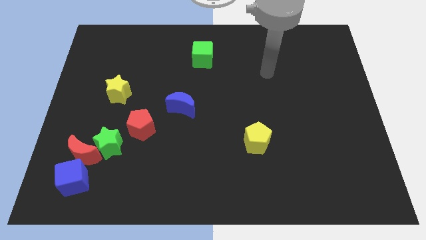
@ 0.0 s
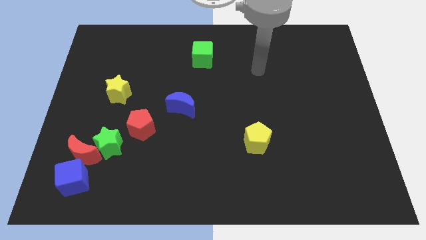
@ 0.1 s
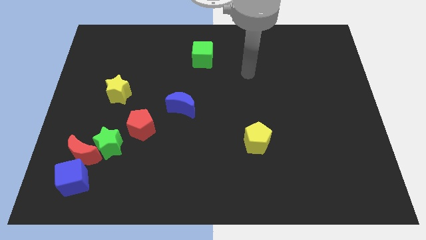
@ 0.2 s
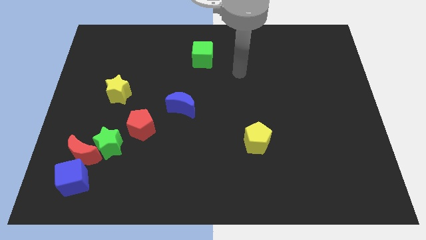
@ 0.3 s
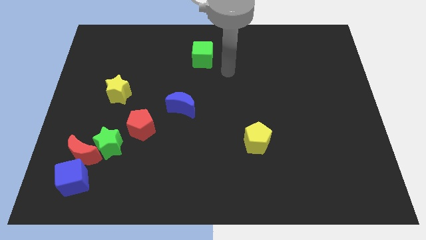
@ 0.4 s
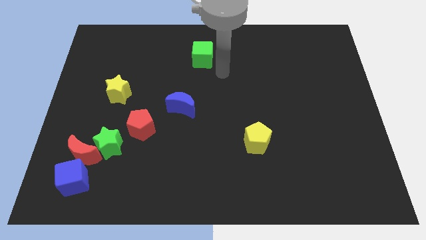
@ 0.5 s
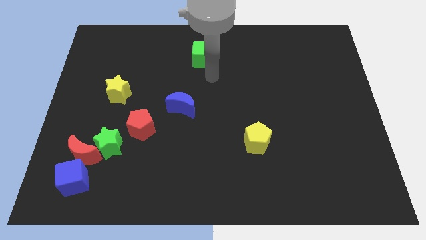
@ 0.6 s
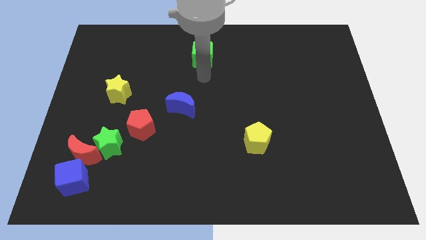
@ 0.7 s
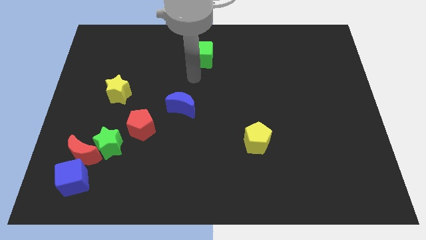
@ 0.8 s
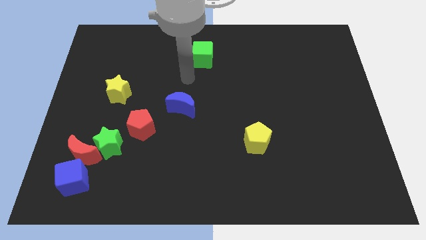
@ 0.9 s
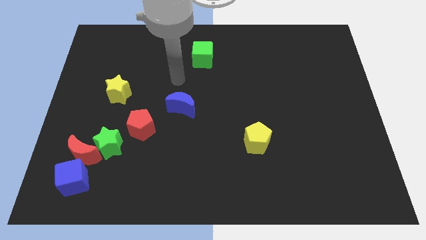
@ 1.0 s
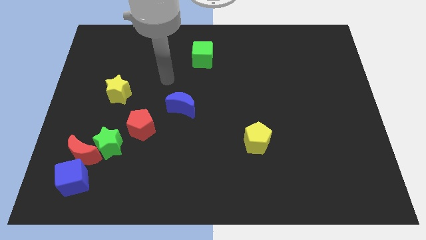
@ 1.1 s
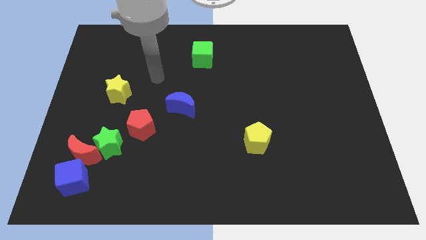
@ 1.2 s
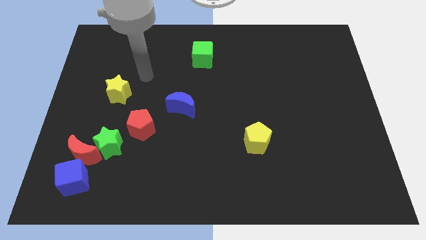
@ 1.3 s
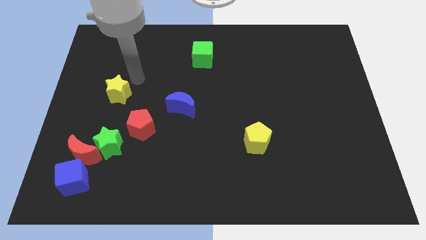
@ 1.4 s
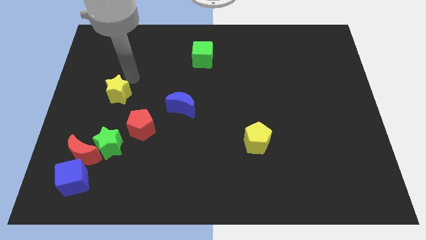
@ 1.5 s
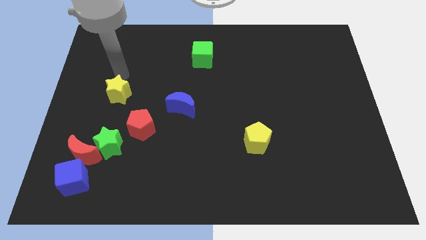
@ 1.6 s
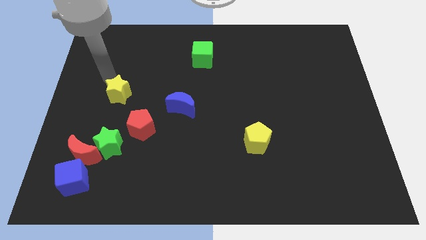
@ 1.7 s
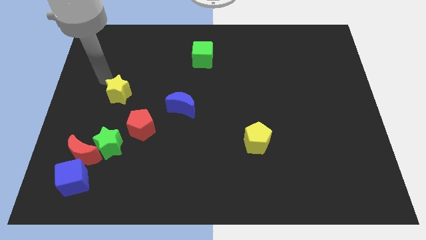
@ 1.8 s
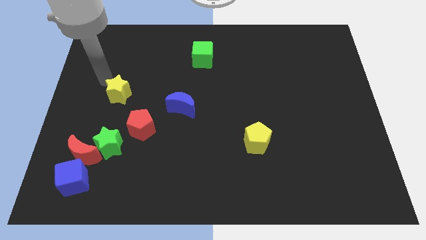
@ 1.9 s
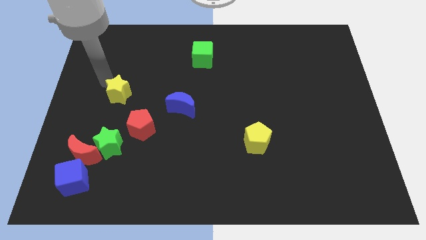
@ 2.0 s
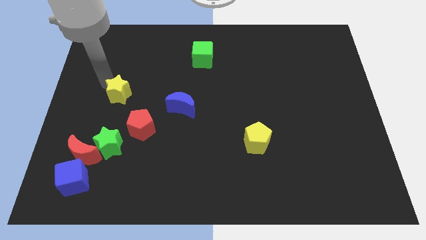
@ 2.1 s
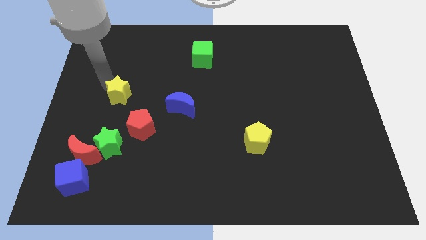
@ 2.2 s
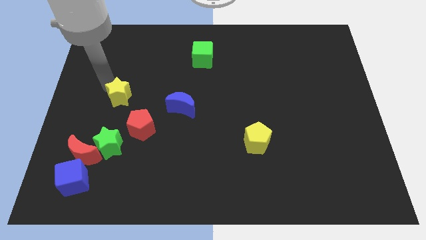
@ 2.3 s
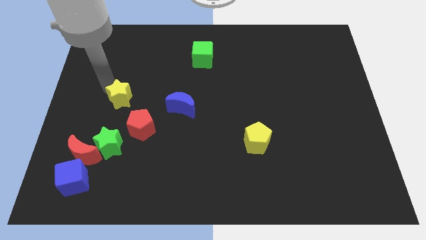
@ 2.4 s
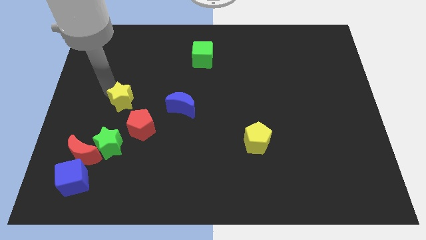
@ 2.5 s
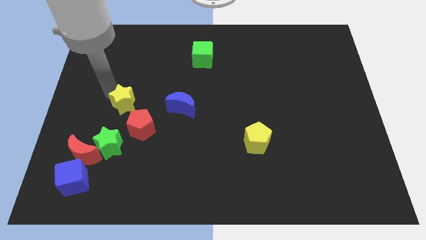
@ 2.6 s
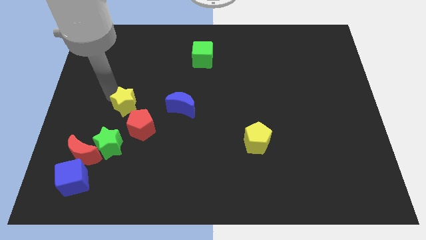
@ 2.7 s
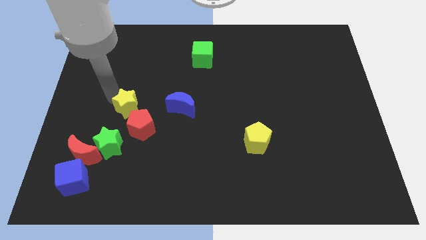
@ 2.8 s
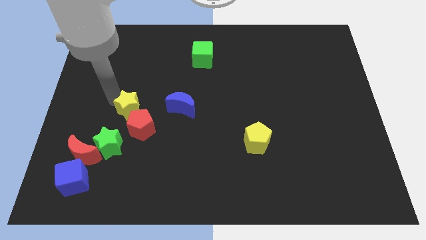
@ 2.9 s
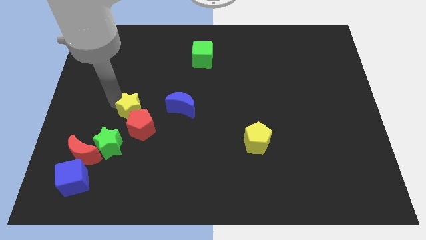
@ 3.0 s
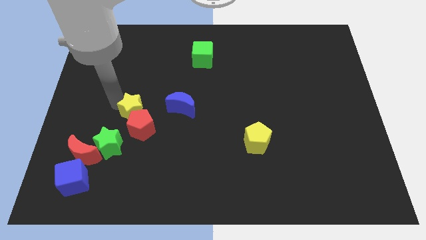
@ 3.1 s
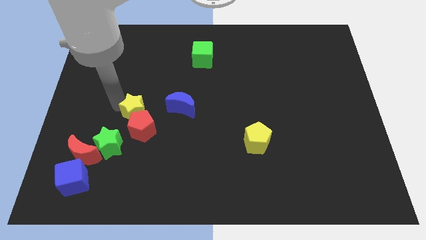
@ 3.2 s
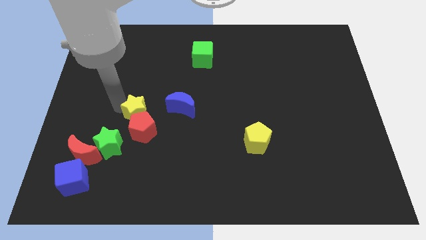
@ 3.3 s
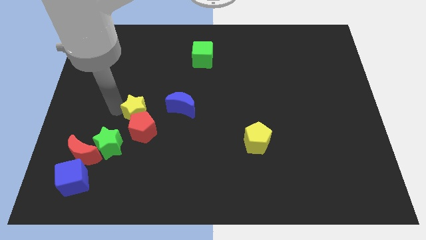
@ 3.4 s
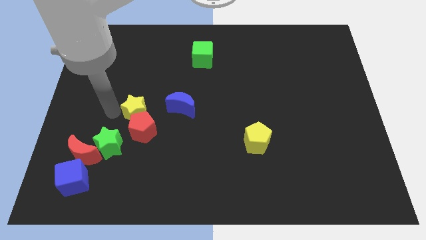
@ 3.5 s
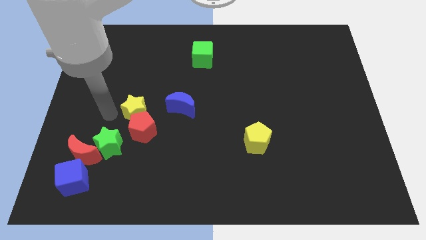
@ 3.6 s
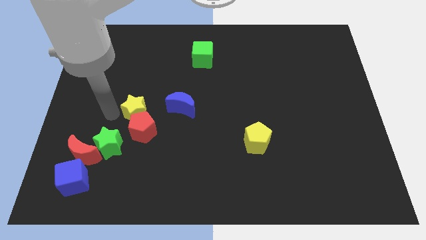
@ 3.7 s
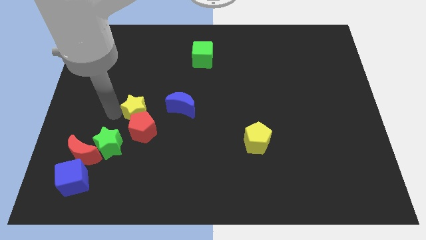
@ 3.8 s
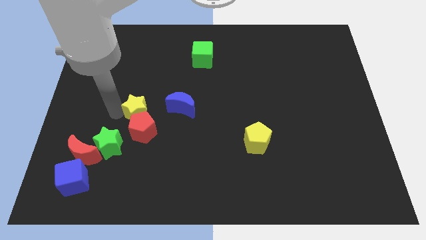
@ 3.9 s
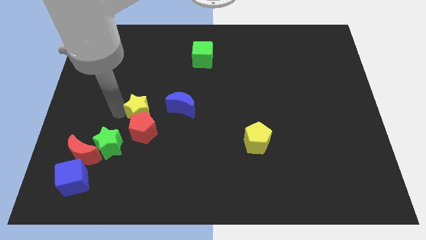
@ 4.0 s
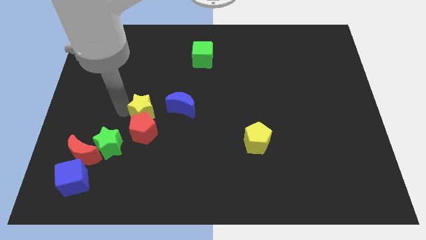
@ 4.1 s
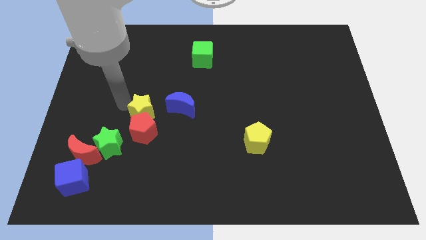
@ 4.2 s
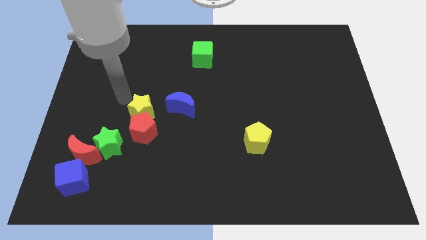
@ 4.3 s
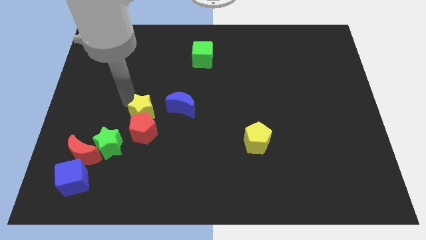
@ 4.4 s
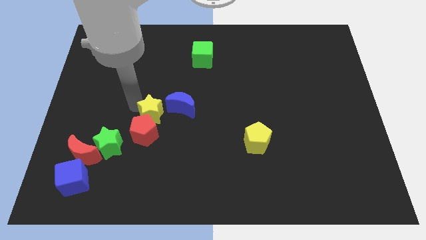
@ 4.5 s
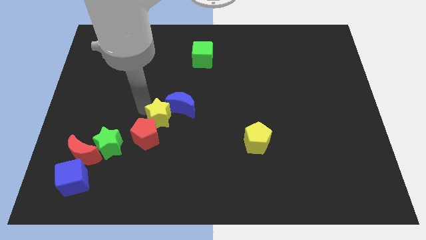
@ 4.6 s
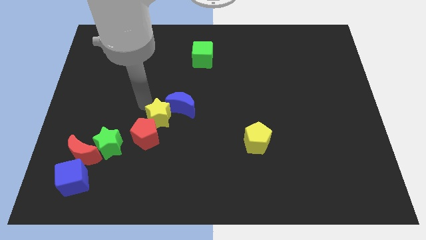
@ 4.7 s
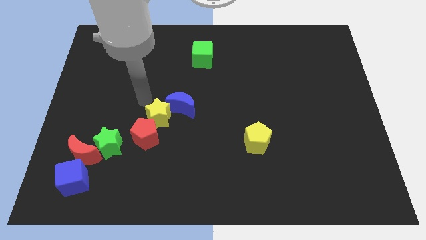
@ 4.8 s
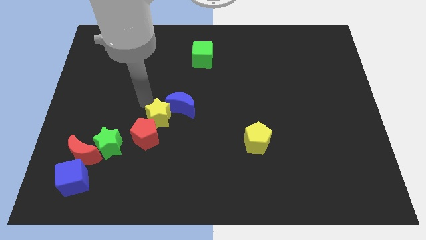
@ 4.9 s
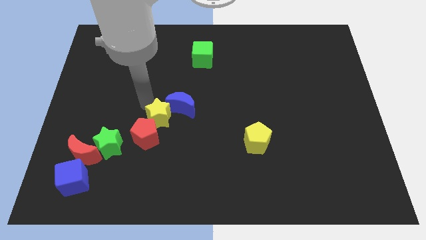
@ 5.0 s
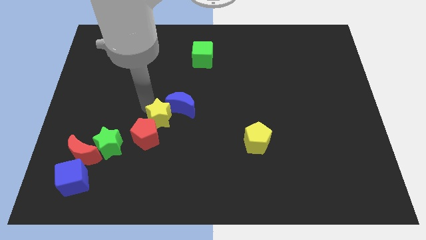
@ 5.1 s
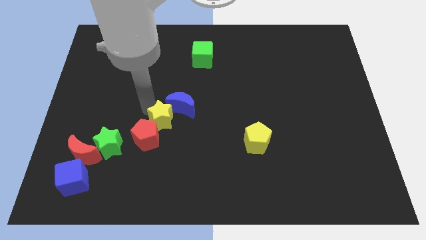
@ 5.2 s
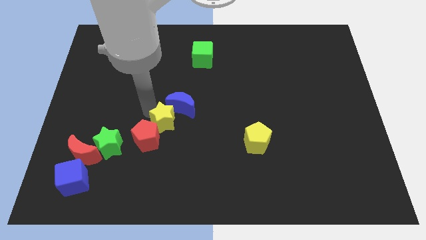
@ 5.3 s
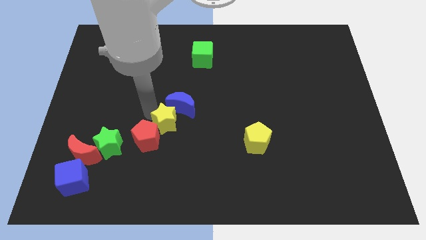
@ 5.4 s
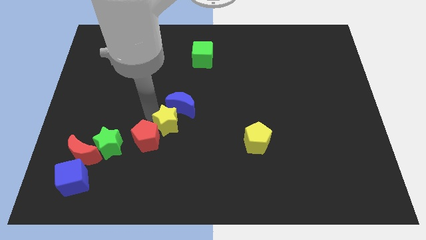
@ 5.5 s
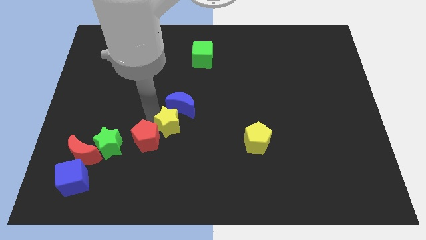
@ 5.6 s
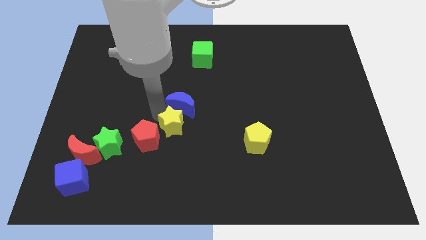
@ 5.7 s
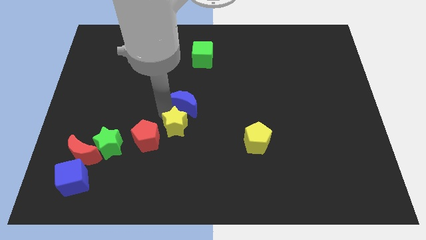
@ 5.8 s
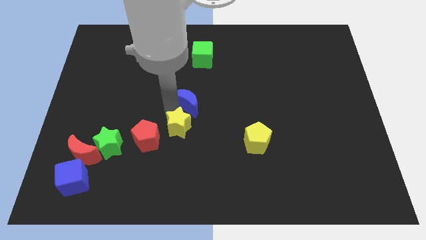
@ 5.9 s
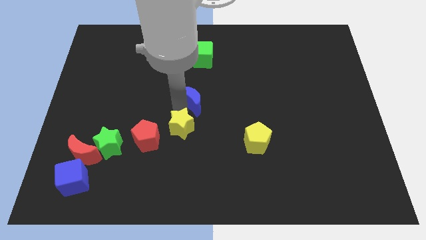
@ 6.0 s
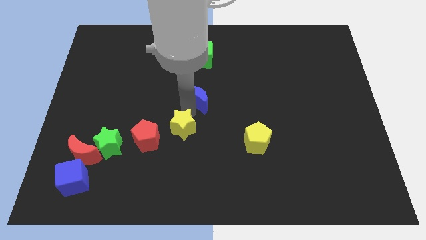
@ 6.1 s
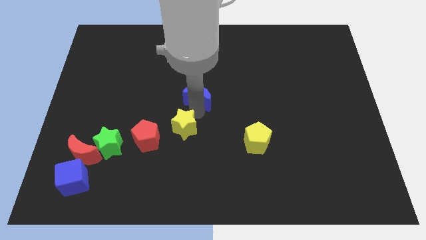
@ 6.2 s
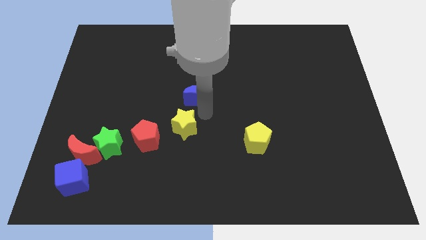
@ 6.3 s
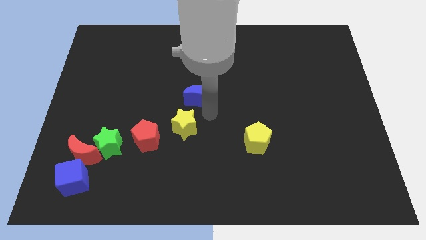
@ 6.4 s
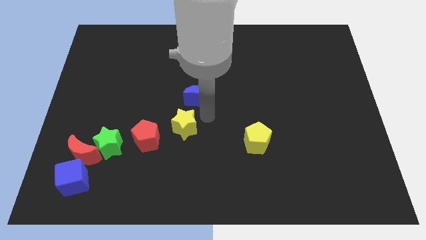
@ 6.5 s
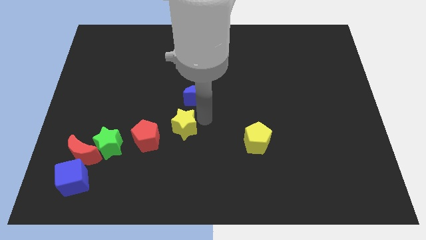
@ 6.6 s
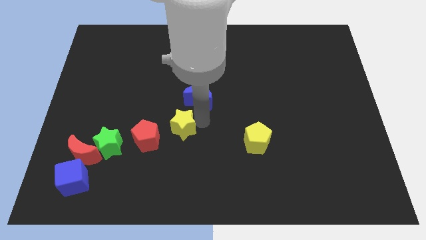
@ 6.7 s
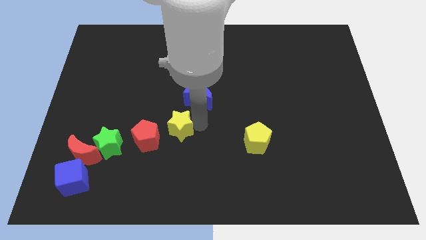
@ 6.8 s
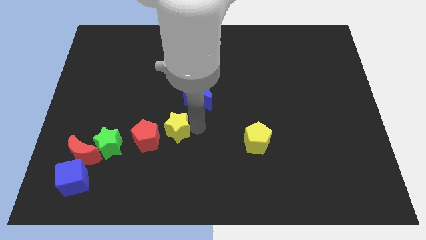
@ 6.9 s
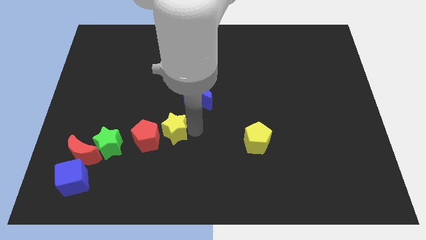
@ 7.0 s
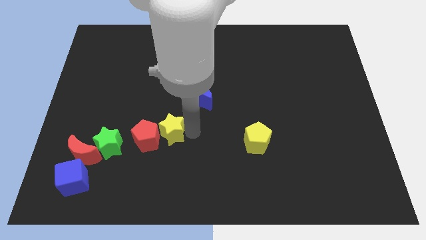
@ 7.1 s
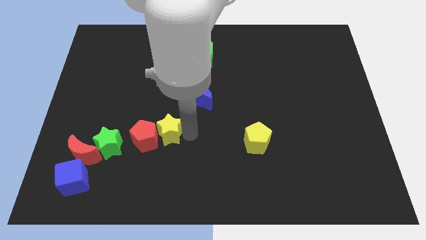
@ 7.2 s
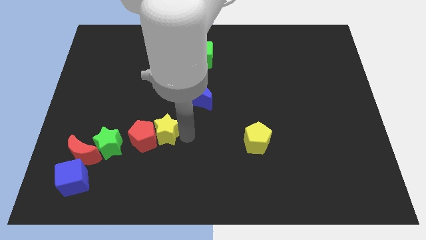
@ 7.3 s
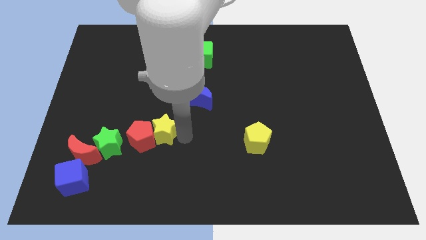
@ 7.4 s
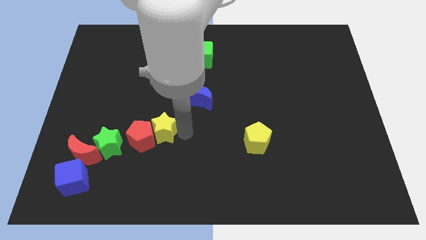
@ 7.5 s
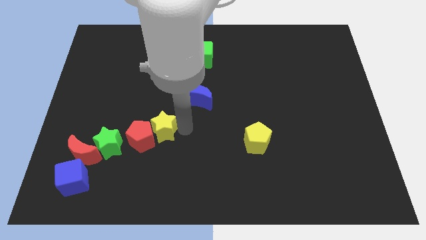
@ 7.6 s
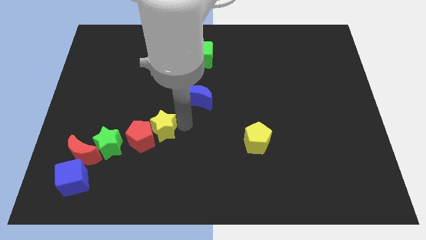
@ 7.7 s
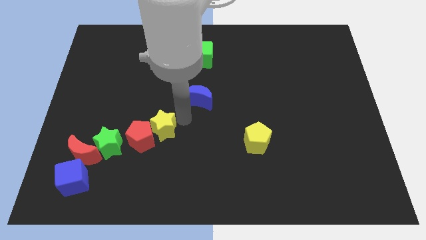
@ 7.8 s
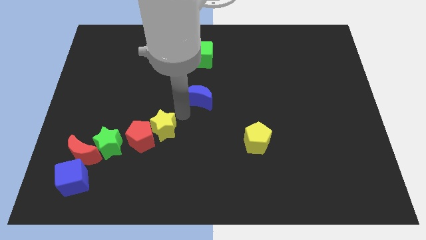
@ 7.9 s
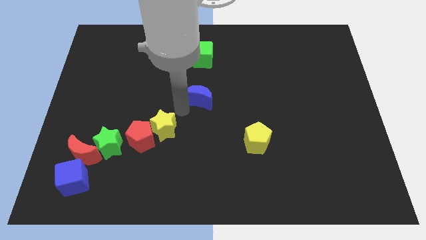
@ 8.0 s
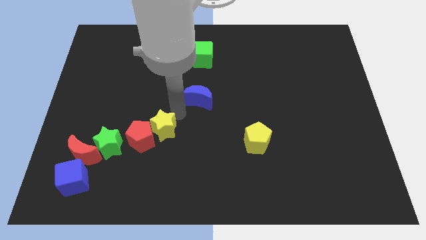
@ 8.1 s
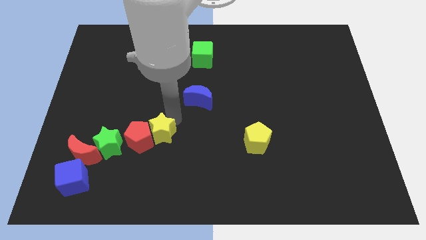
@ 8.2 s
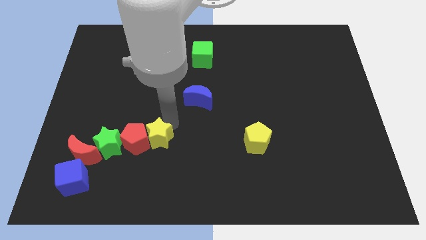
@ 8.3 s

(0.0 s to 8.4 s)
push the yellow star downwards a bit
